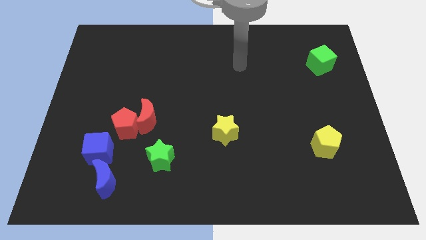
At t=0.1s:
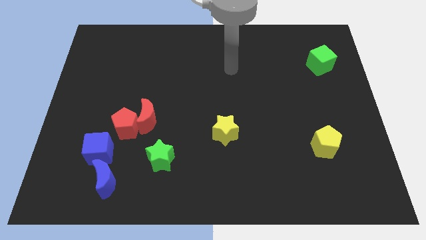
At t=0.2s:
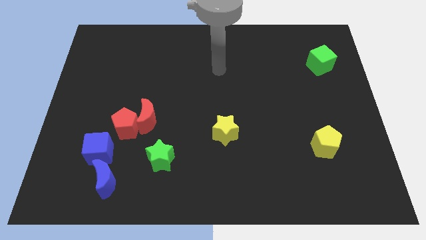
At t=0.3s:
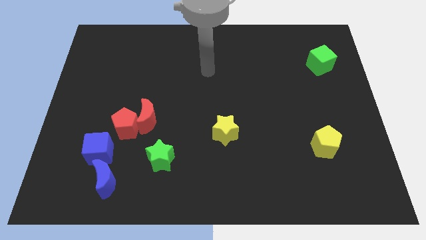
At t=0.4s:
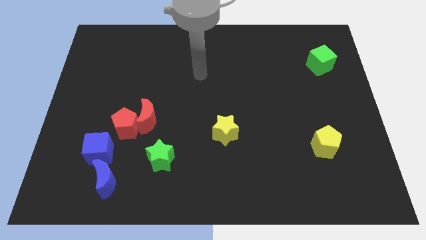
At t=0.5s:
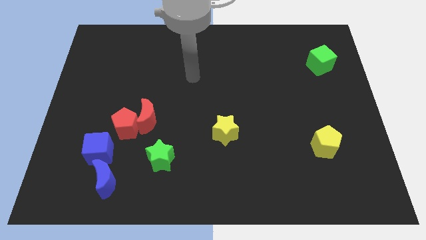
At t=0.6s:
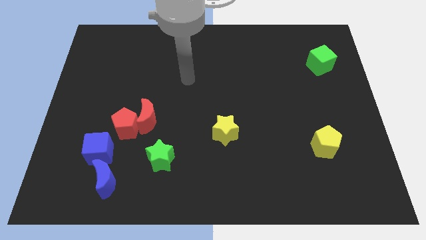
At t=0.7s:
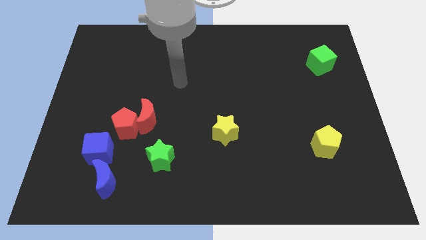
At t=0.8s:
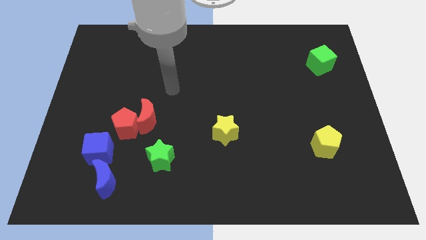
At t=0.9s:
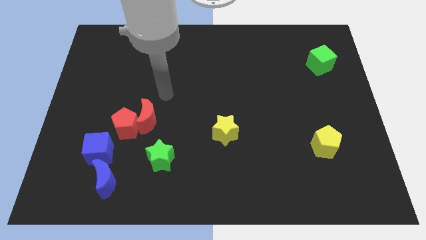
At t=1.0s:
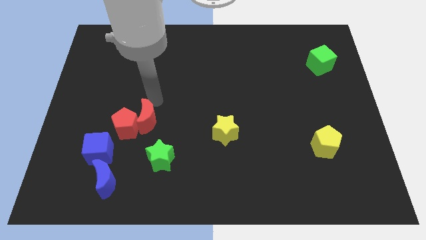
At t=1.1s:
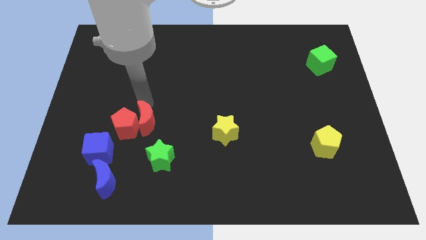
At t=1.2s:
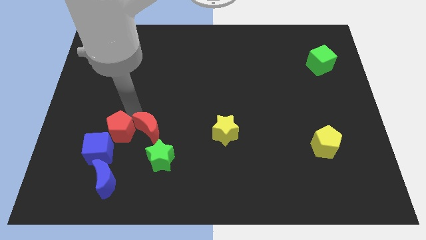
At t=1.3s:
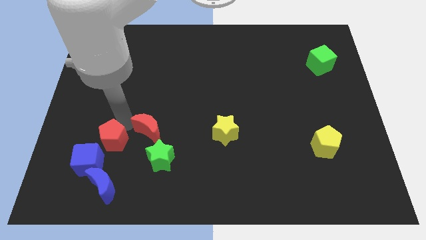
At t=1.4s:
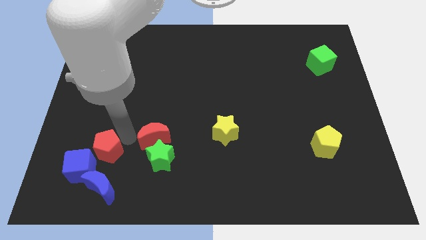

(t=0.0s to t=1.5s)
separate the red moon from the red pentagon

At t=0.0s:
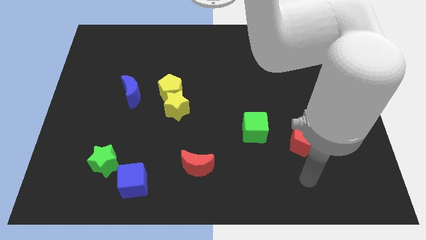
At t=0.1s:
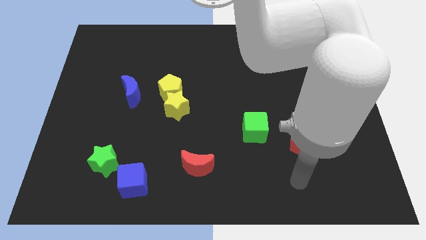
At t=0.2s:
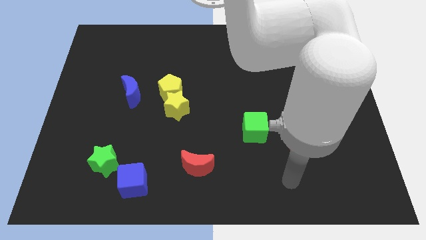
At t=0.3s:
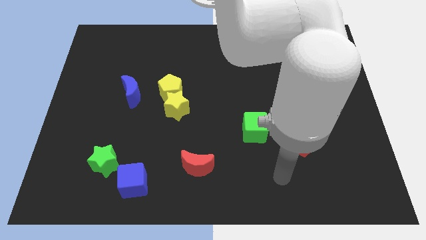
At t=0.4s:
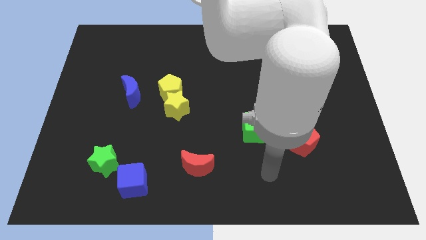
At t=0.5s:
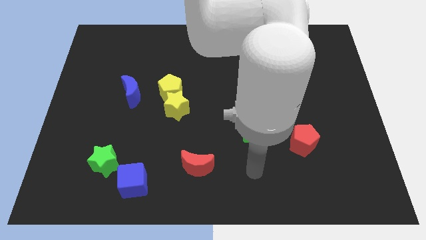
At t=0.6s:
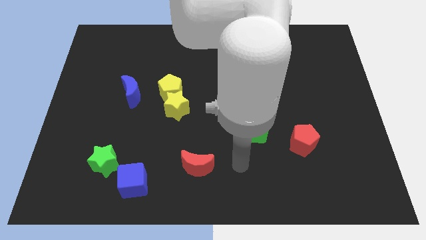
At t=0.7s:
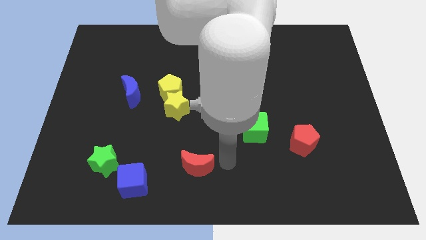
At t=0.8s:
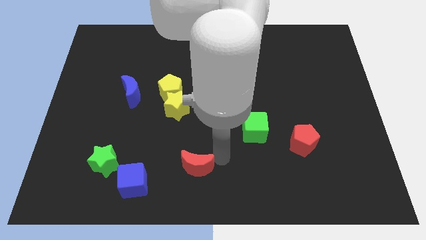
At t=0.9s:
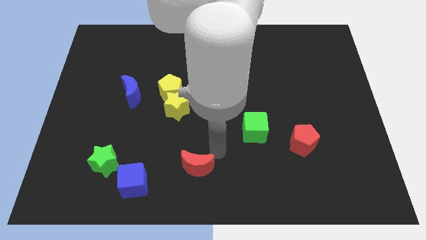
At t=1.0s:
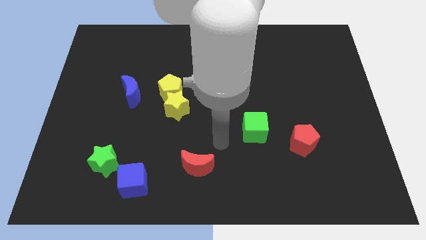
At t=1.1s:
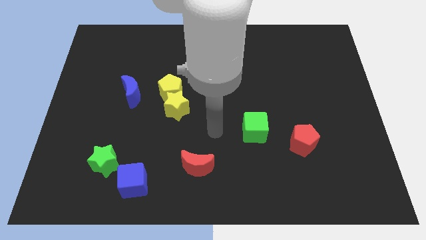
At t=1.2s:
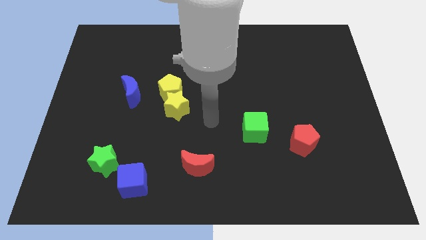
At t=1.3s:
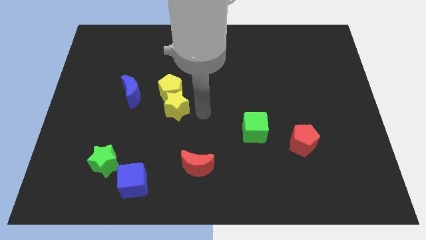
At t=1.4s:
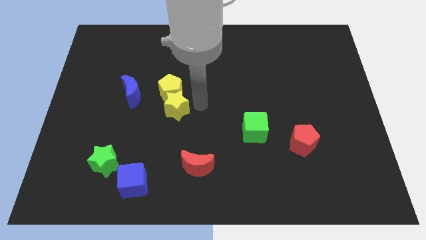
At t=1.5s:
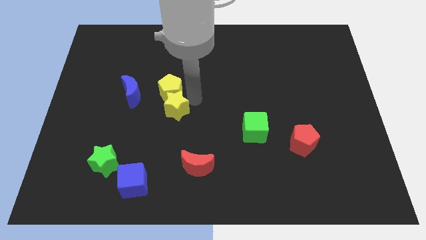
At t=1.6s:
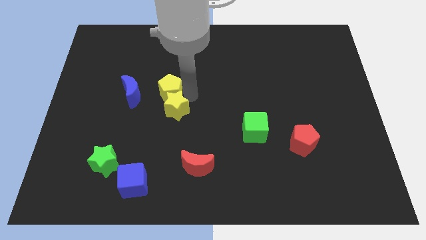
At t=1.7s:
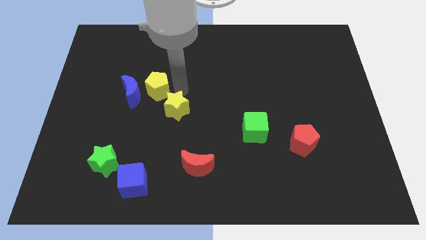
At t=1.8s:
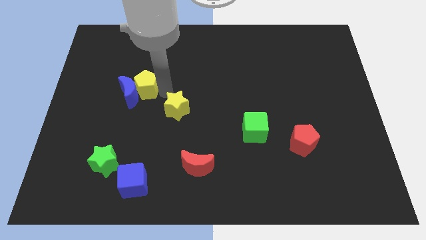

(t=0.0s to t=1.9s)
move the yellow star away from the yellow pentagon

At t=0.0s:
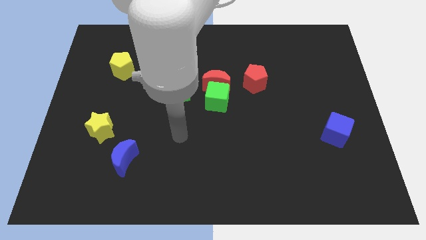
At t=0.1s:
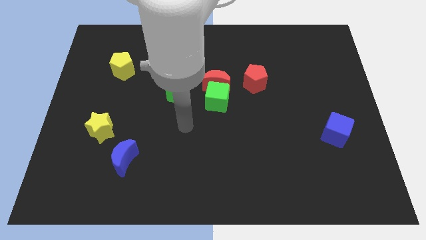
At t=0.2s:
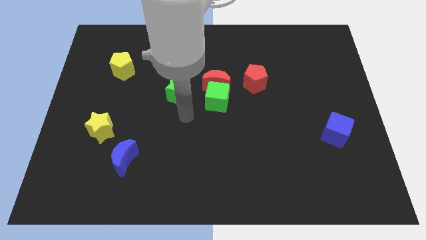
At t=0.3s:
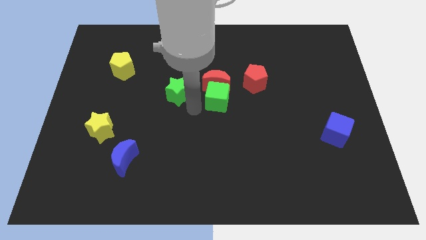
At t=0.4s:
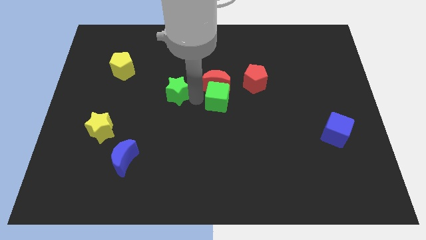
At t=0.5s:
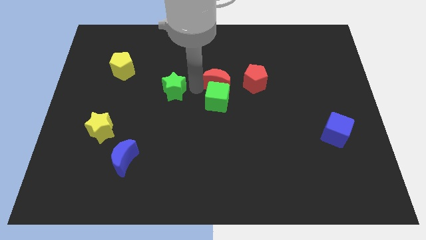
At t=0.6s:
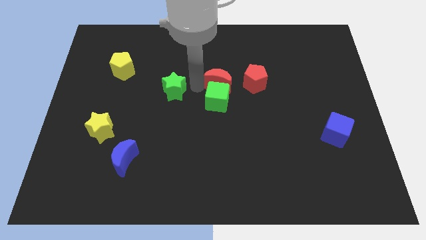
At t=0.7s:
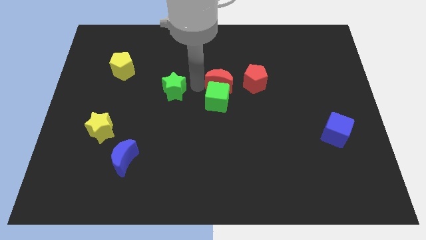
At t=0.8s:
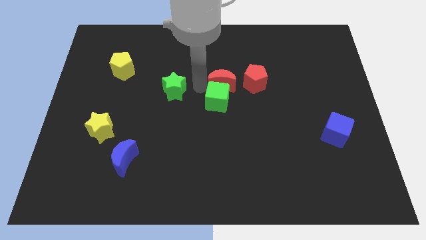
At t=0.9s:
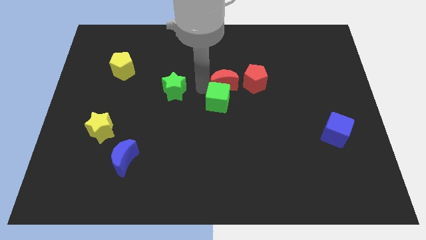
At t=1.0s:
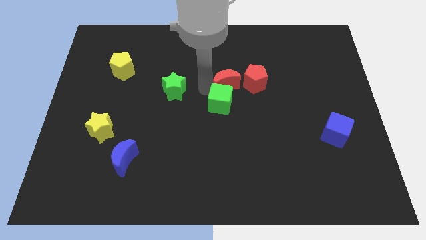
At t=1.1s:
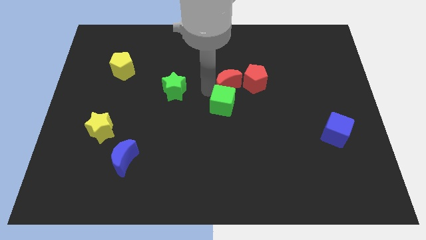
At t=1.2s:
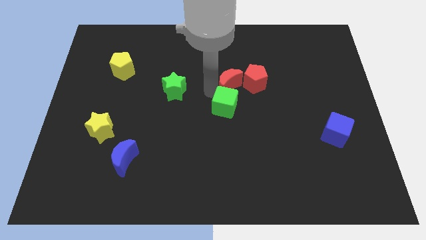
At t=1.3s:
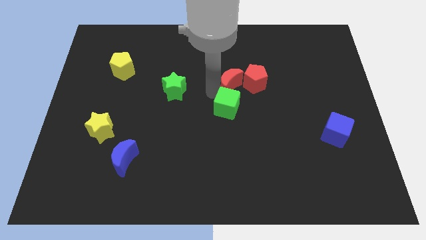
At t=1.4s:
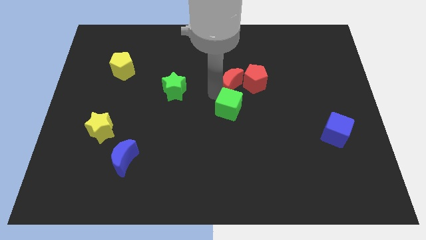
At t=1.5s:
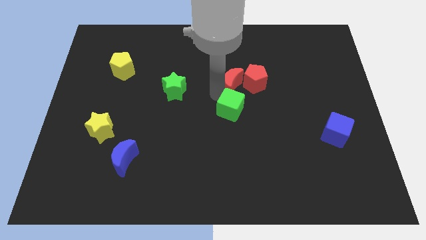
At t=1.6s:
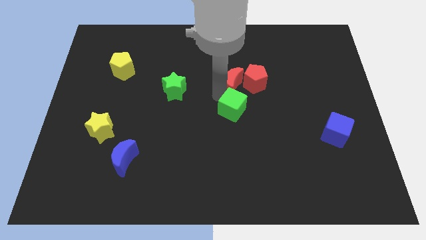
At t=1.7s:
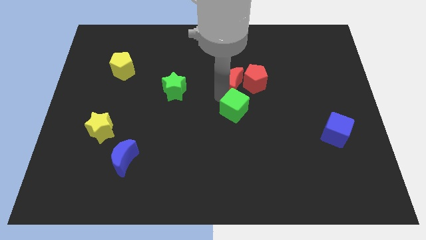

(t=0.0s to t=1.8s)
pull the green cube apart from the red moon and green star

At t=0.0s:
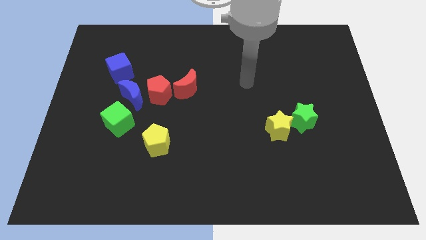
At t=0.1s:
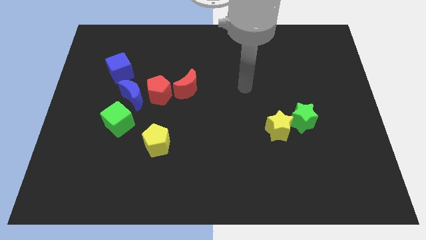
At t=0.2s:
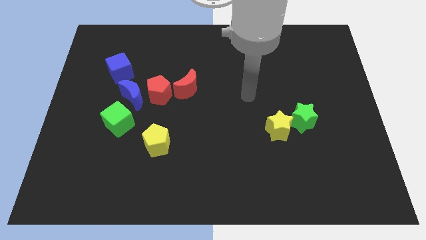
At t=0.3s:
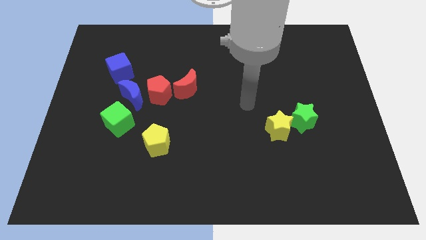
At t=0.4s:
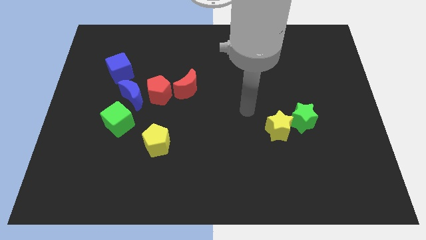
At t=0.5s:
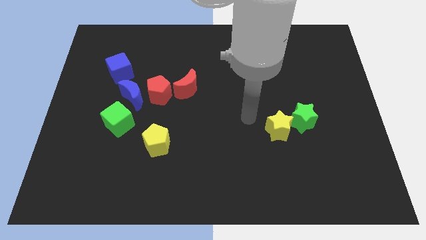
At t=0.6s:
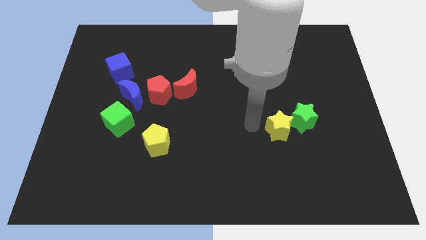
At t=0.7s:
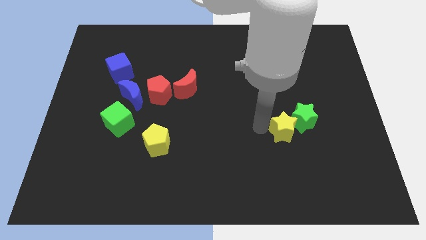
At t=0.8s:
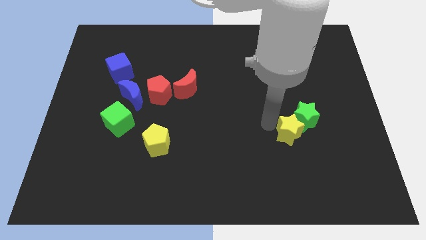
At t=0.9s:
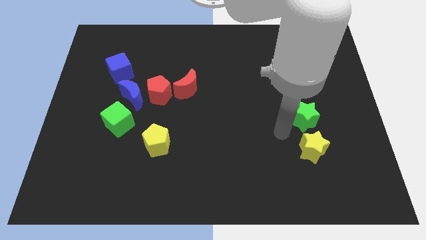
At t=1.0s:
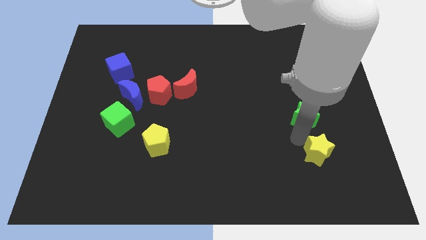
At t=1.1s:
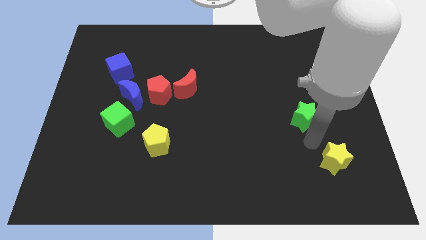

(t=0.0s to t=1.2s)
pull the green star apart from the yellow star

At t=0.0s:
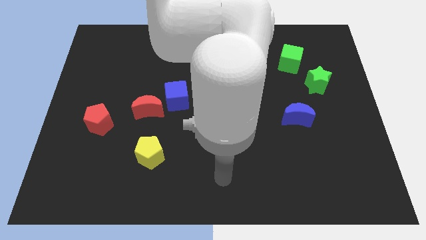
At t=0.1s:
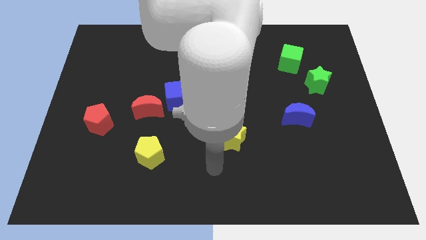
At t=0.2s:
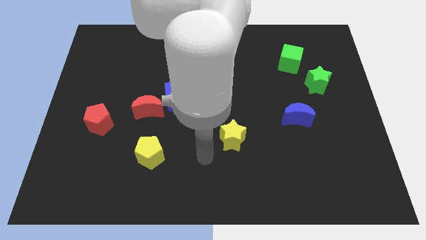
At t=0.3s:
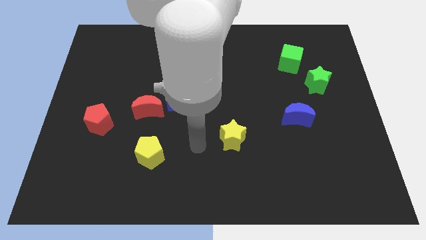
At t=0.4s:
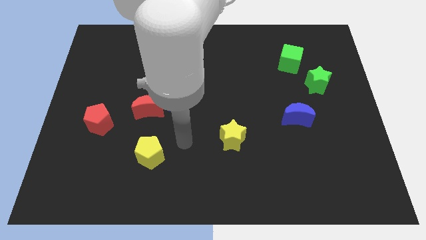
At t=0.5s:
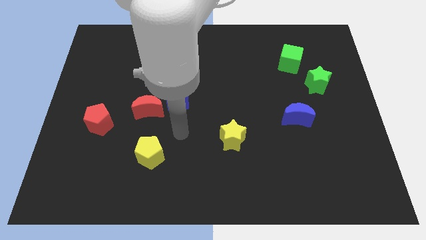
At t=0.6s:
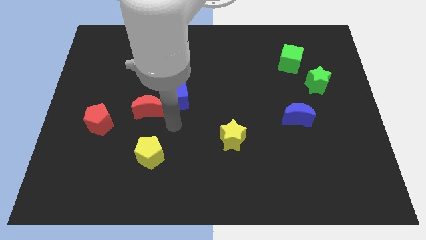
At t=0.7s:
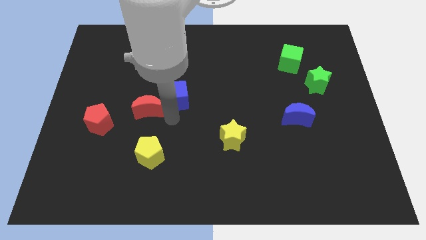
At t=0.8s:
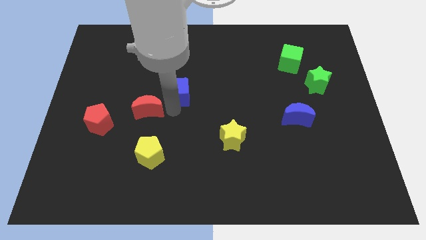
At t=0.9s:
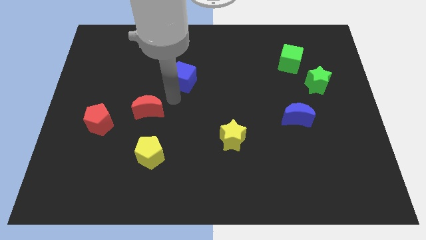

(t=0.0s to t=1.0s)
move the red moon away from the blue cube

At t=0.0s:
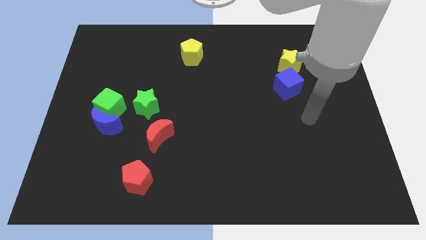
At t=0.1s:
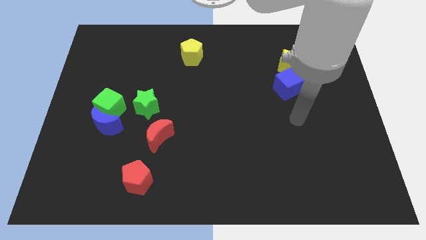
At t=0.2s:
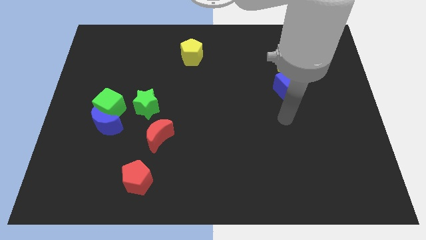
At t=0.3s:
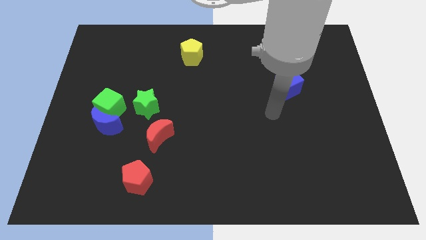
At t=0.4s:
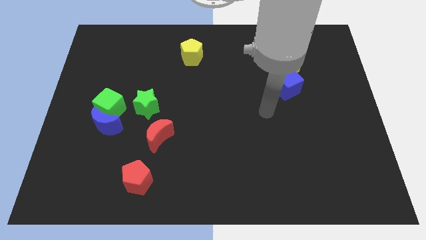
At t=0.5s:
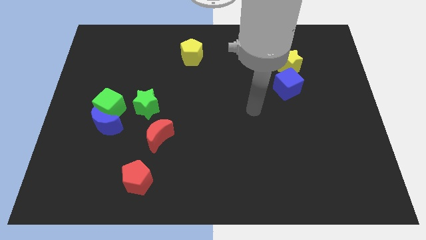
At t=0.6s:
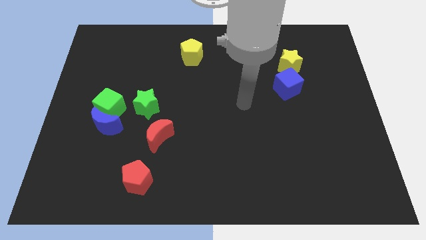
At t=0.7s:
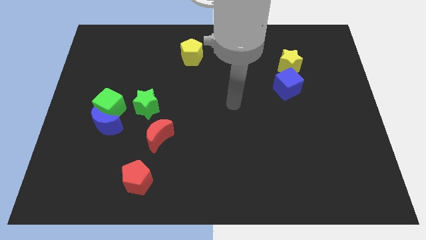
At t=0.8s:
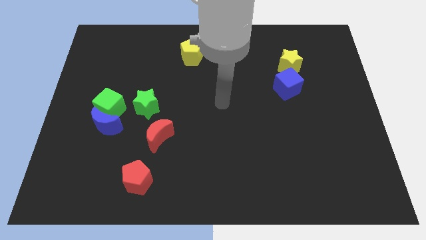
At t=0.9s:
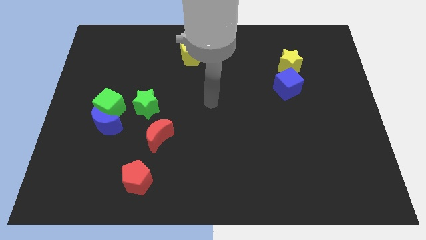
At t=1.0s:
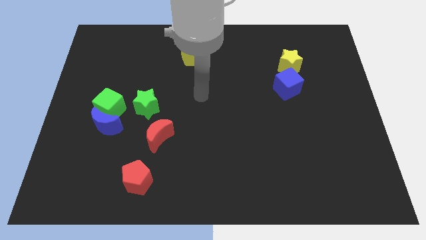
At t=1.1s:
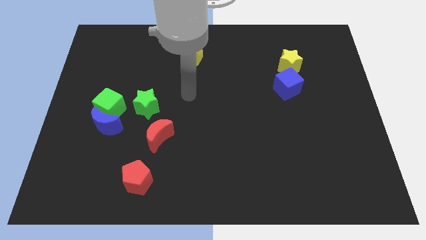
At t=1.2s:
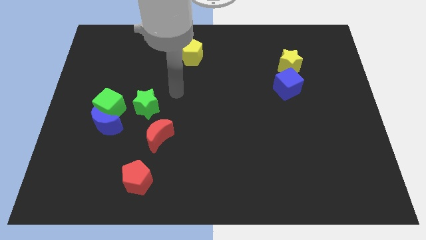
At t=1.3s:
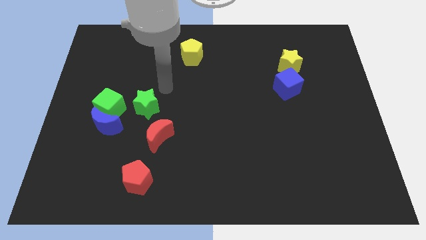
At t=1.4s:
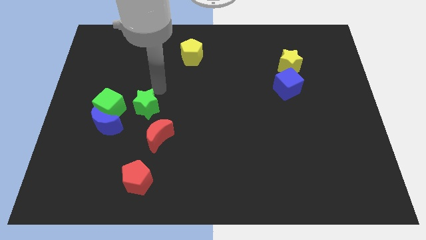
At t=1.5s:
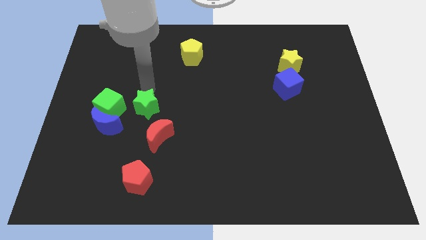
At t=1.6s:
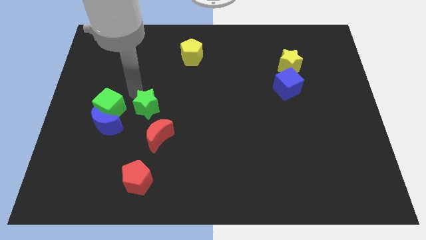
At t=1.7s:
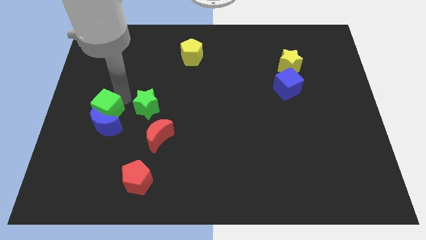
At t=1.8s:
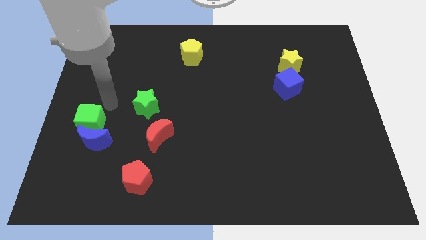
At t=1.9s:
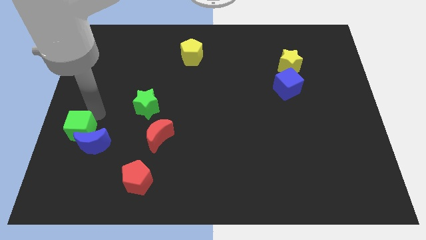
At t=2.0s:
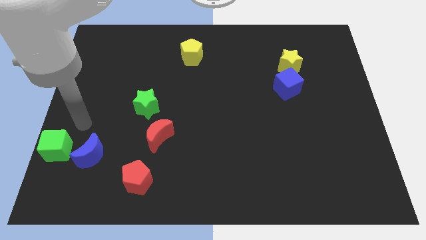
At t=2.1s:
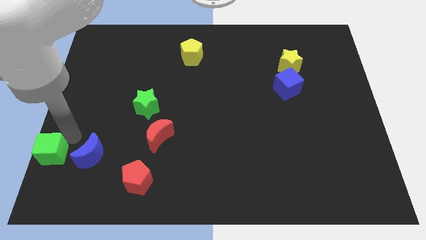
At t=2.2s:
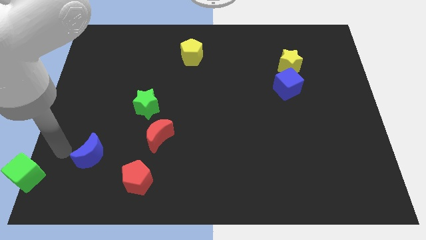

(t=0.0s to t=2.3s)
separate the blue moon from the green cube
